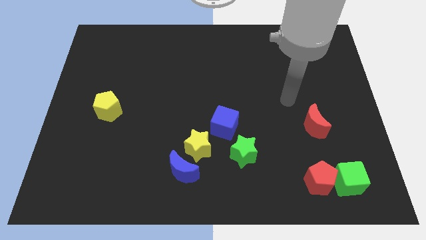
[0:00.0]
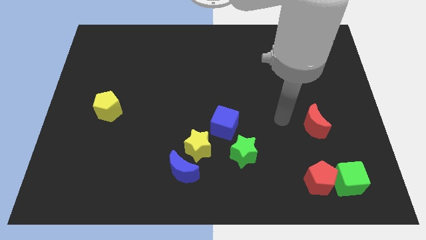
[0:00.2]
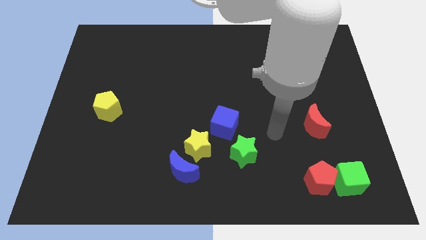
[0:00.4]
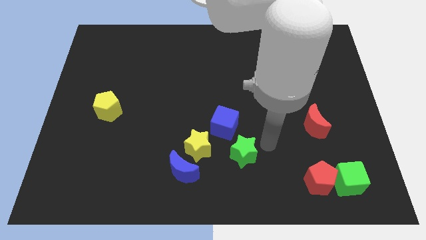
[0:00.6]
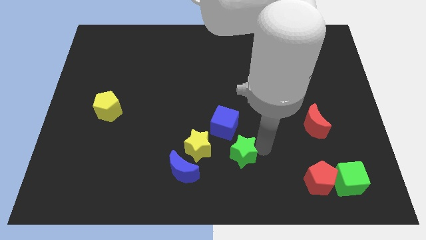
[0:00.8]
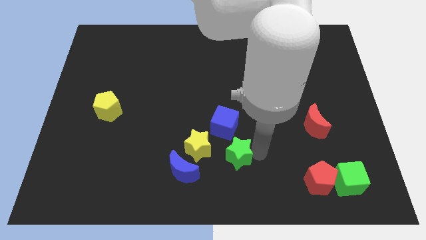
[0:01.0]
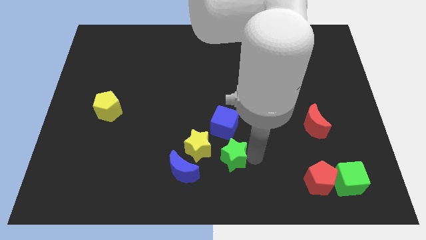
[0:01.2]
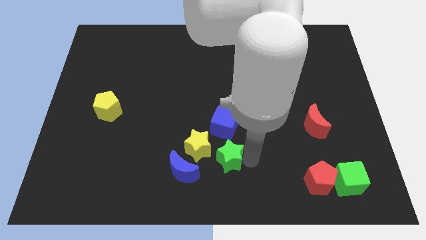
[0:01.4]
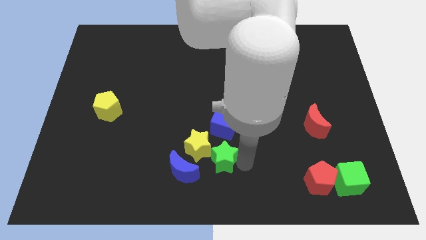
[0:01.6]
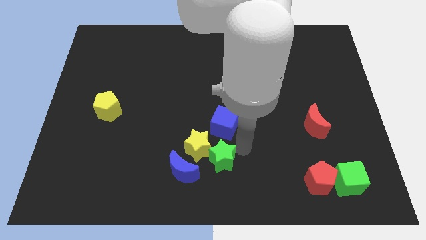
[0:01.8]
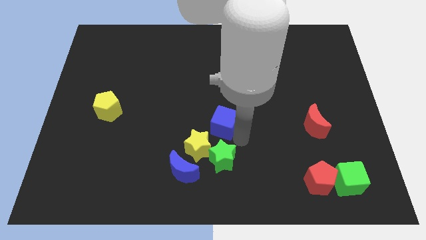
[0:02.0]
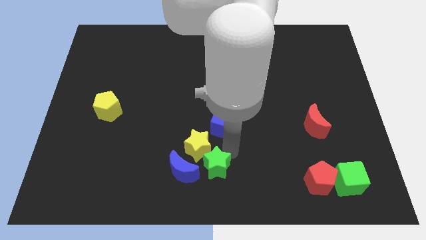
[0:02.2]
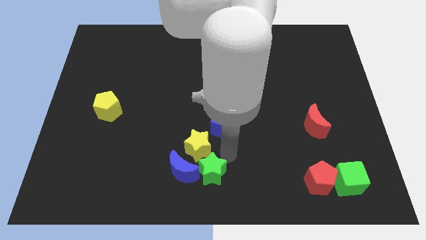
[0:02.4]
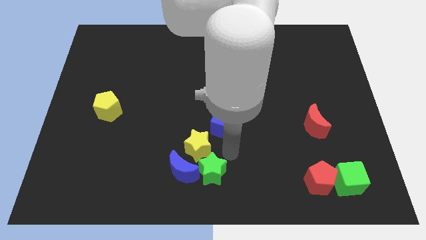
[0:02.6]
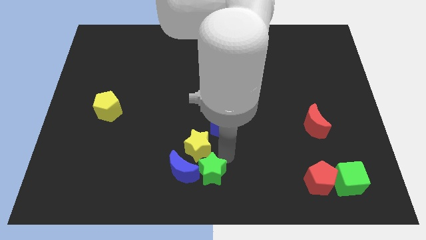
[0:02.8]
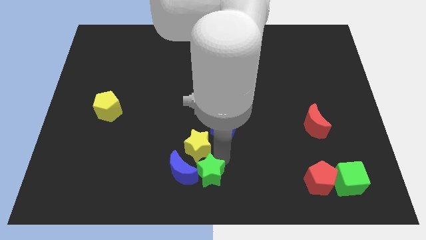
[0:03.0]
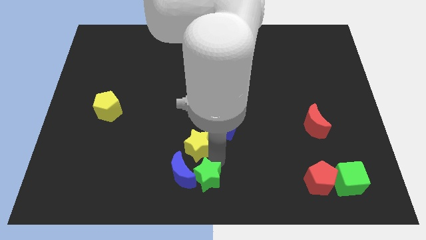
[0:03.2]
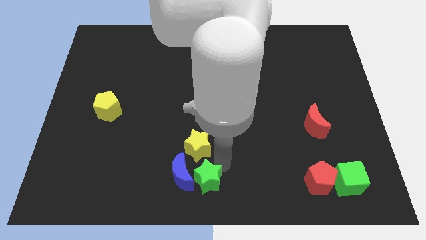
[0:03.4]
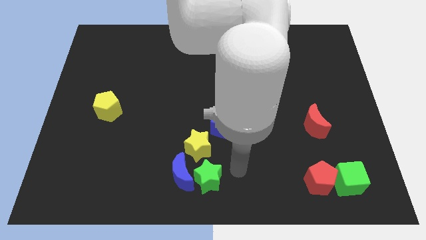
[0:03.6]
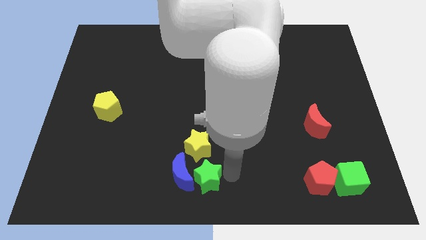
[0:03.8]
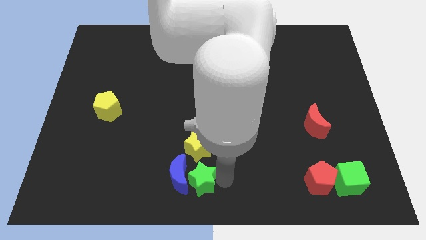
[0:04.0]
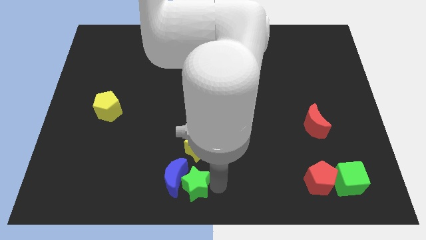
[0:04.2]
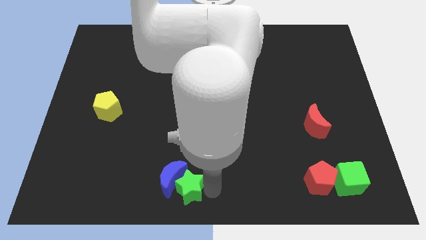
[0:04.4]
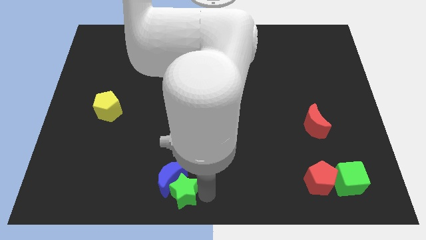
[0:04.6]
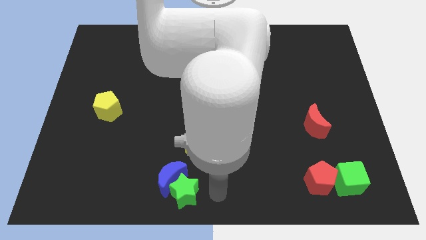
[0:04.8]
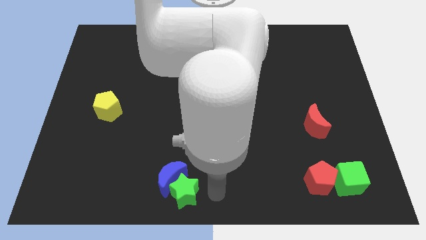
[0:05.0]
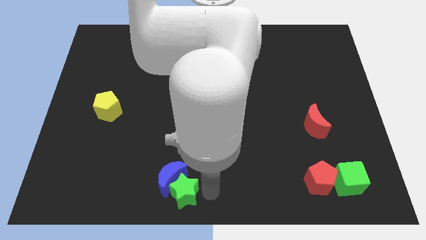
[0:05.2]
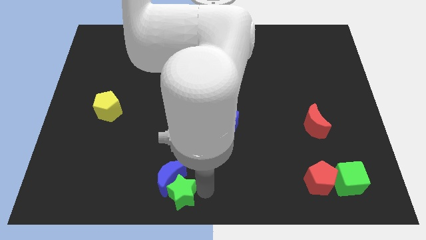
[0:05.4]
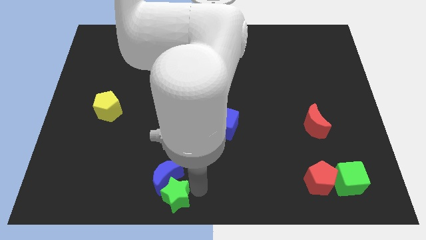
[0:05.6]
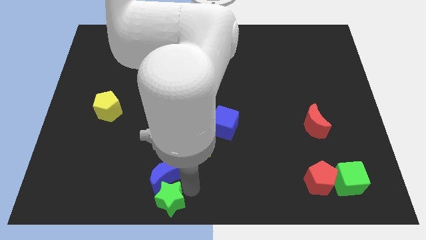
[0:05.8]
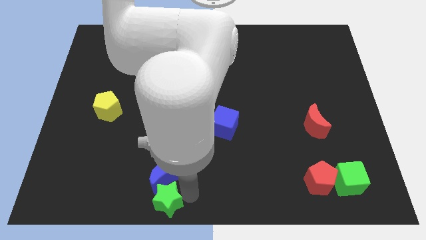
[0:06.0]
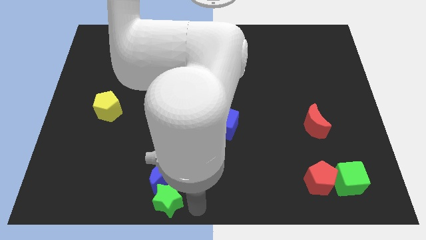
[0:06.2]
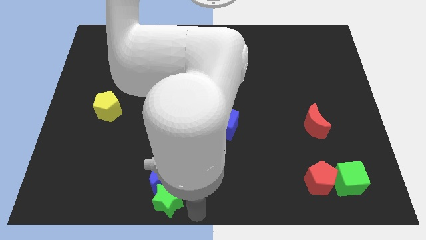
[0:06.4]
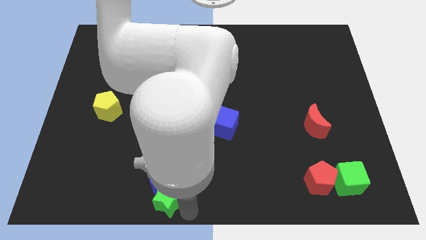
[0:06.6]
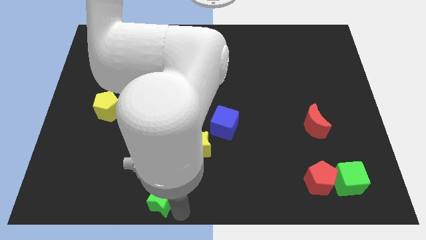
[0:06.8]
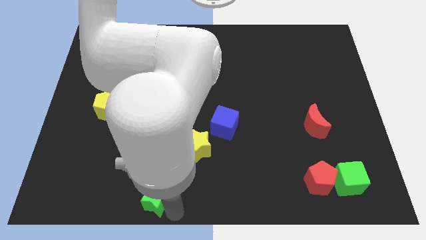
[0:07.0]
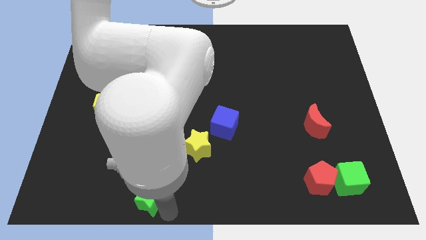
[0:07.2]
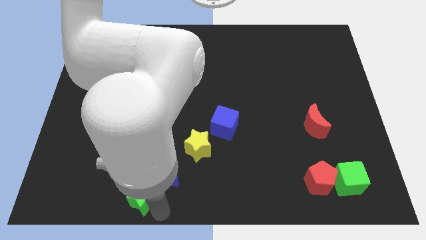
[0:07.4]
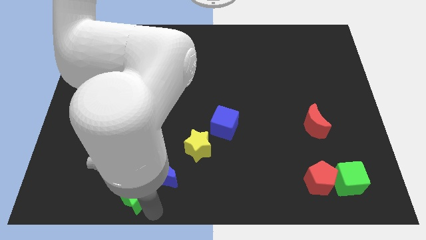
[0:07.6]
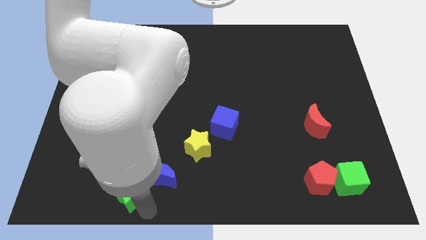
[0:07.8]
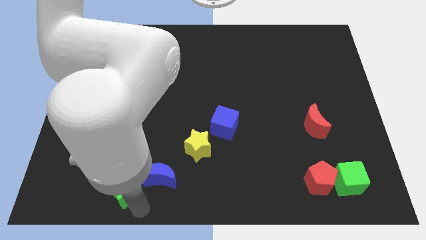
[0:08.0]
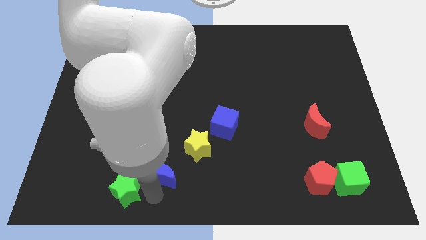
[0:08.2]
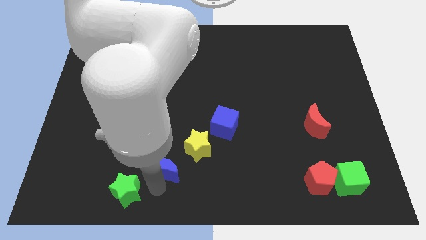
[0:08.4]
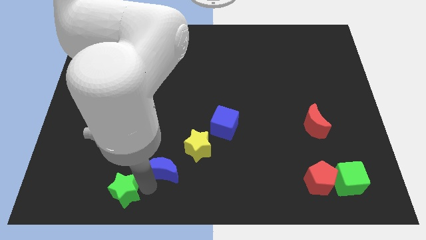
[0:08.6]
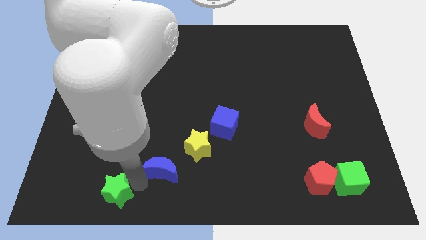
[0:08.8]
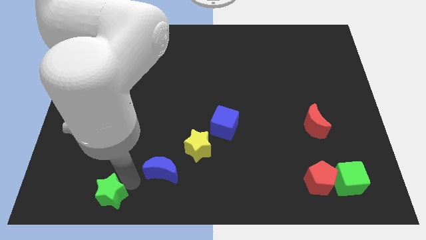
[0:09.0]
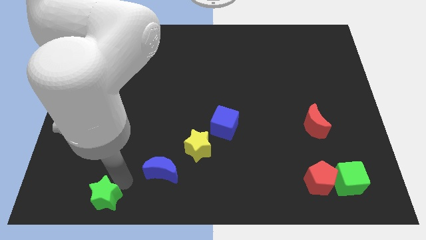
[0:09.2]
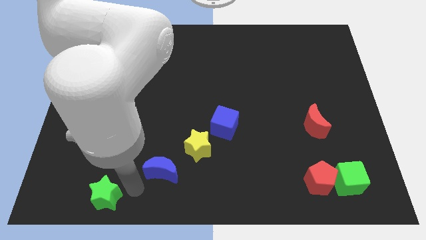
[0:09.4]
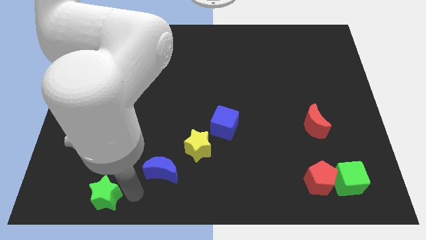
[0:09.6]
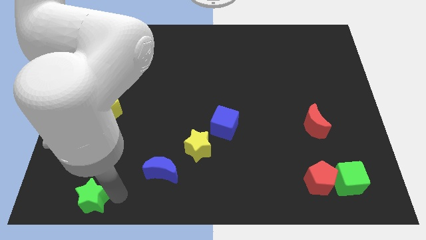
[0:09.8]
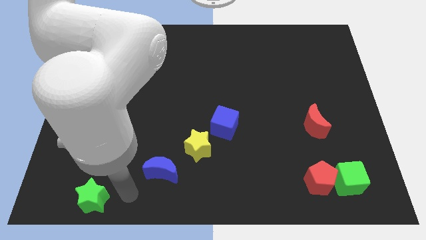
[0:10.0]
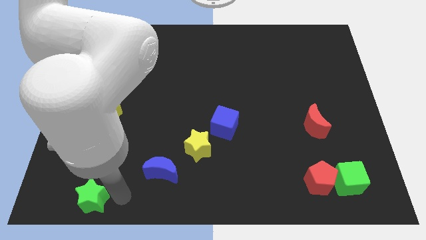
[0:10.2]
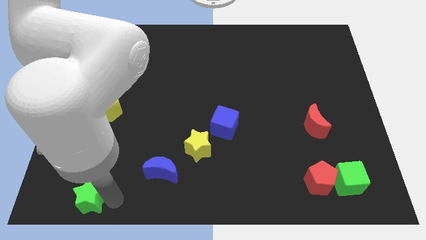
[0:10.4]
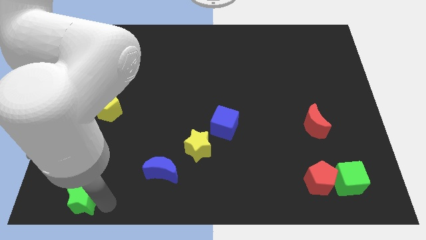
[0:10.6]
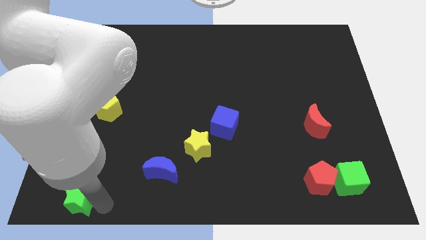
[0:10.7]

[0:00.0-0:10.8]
move the green star to the bottom left of the board
